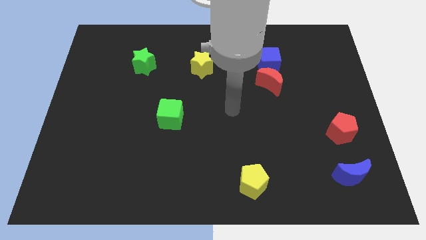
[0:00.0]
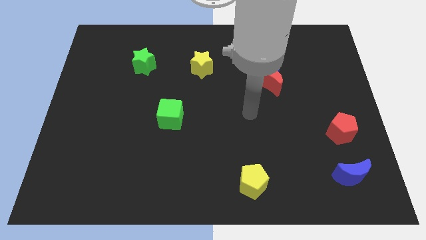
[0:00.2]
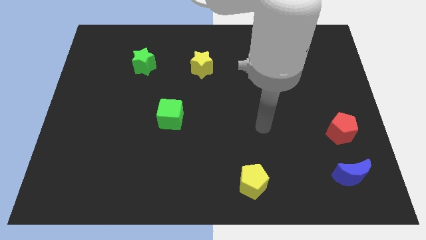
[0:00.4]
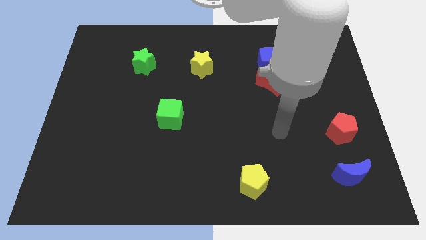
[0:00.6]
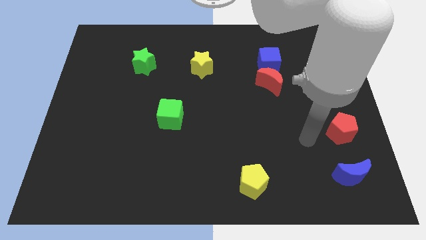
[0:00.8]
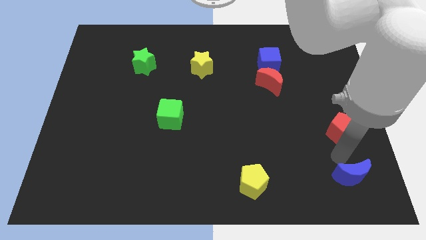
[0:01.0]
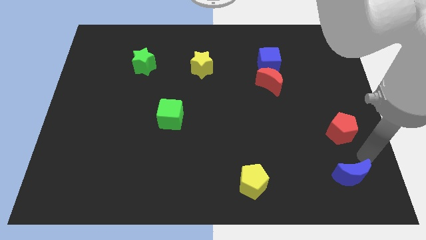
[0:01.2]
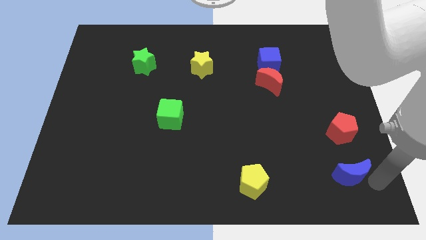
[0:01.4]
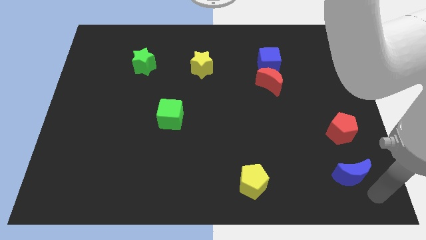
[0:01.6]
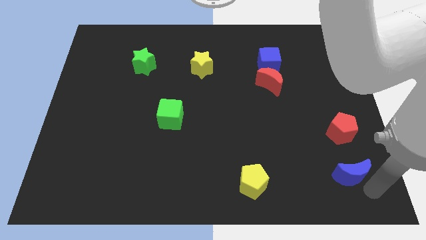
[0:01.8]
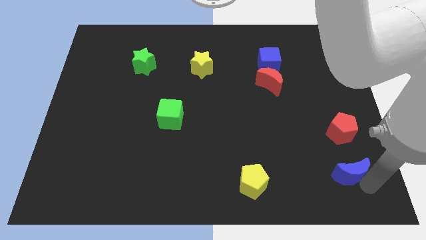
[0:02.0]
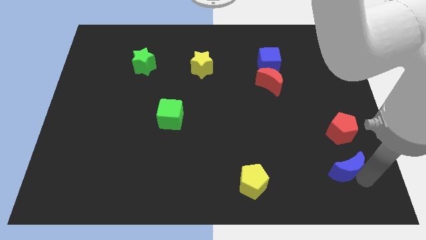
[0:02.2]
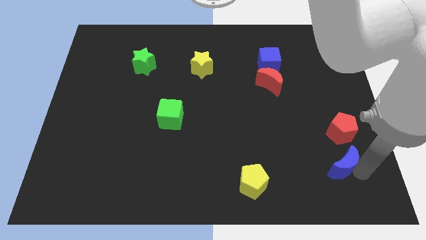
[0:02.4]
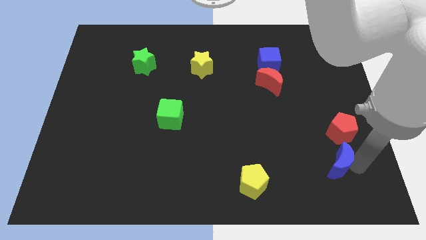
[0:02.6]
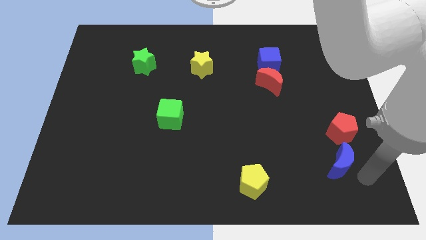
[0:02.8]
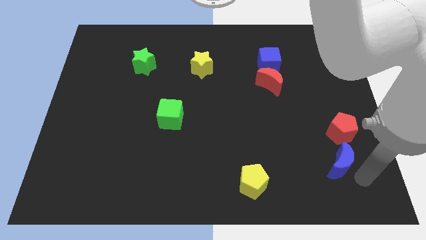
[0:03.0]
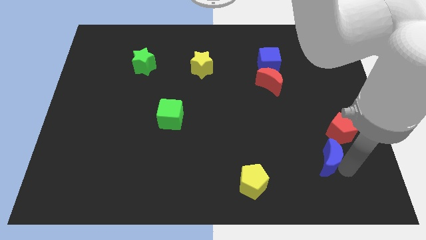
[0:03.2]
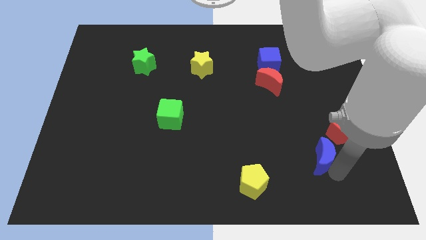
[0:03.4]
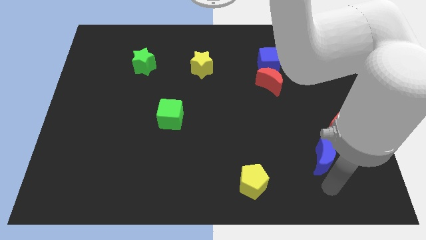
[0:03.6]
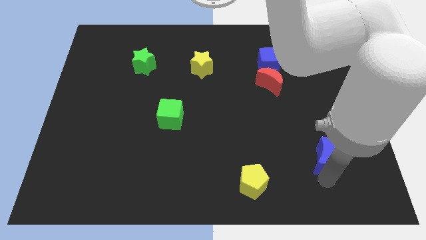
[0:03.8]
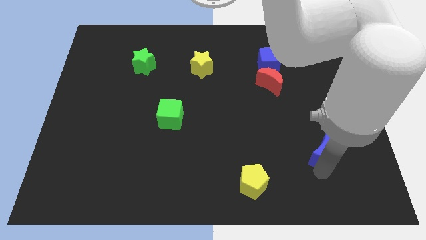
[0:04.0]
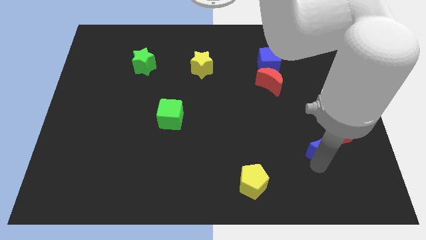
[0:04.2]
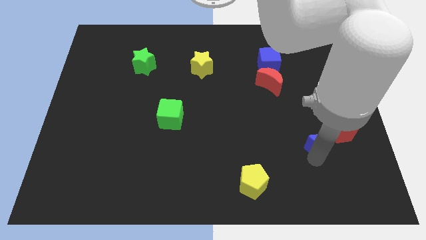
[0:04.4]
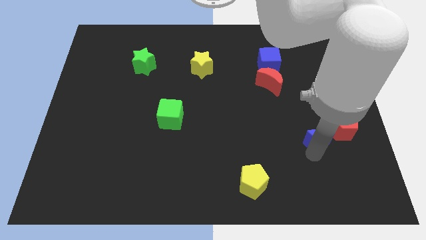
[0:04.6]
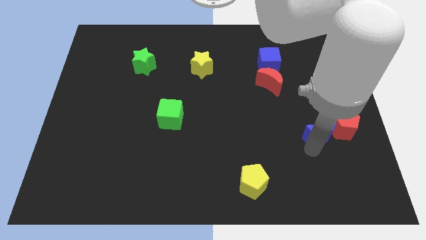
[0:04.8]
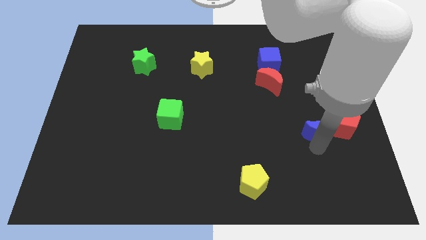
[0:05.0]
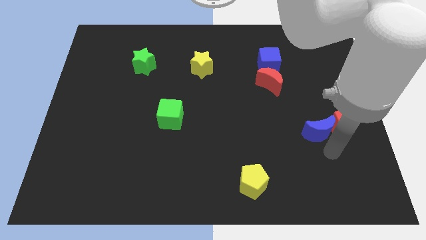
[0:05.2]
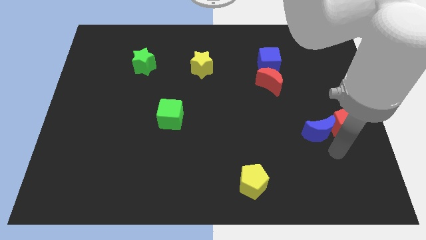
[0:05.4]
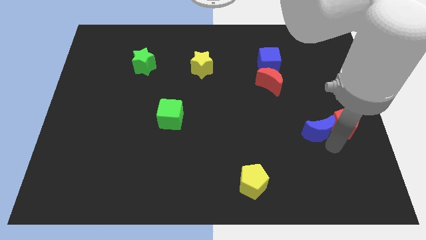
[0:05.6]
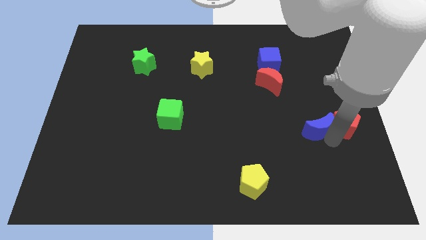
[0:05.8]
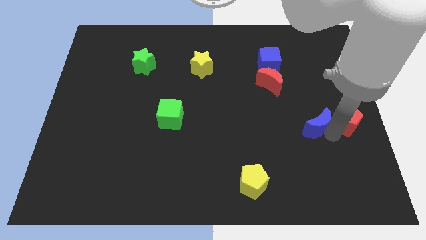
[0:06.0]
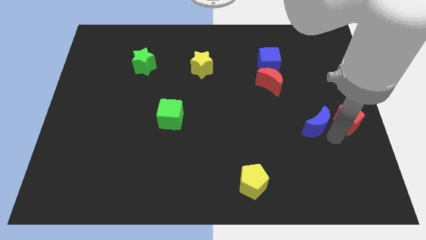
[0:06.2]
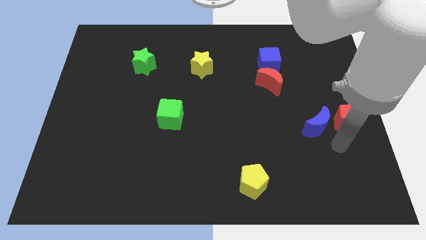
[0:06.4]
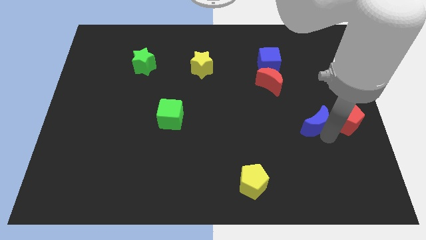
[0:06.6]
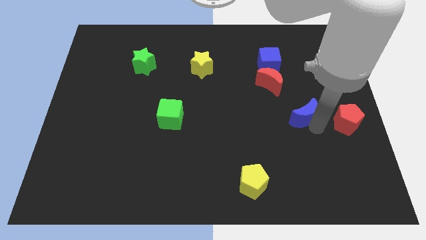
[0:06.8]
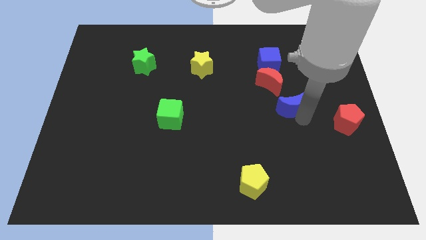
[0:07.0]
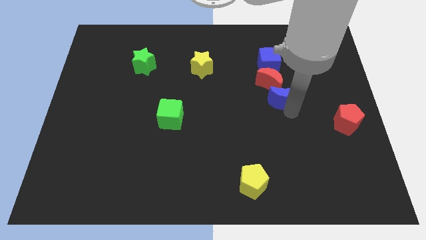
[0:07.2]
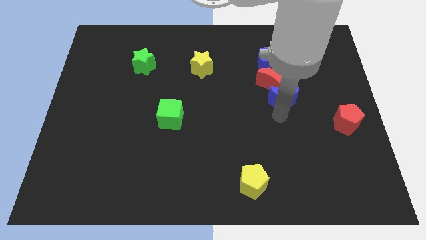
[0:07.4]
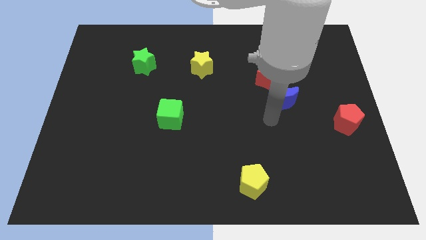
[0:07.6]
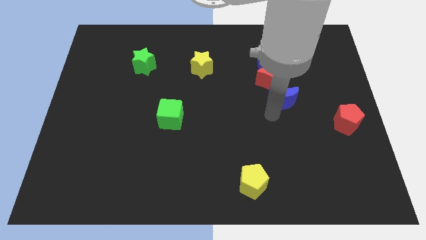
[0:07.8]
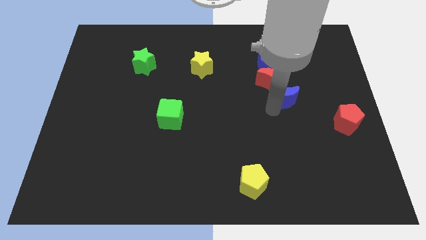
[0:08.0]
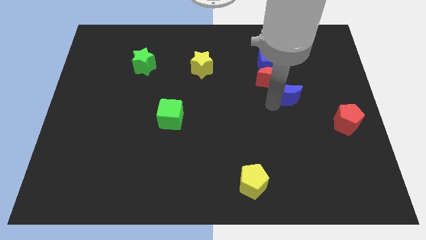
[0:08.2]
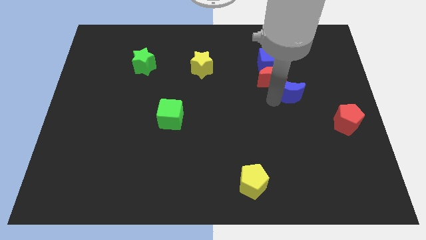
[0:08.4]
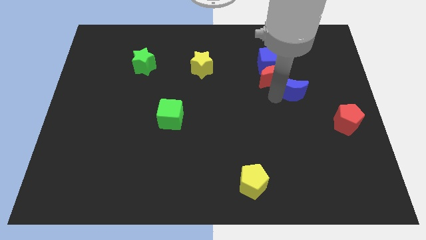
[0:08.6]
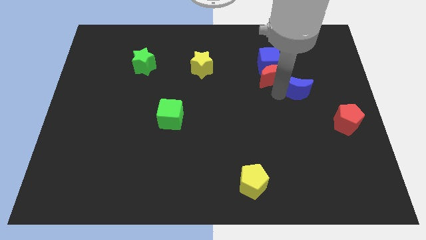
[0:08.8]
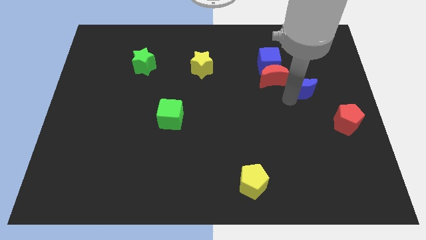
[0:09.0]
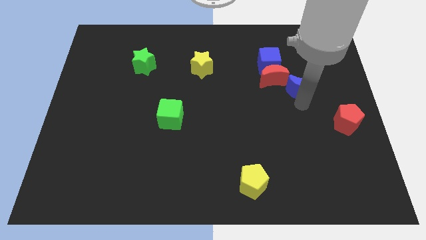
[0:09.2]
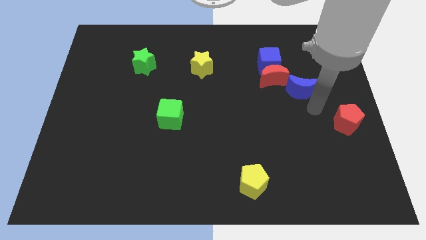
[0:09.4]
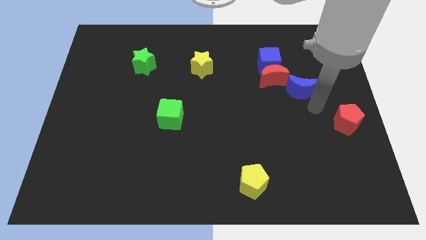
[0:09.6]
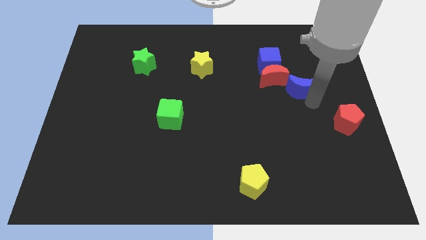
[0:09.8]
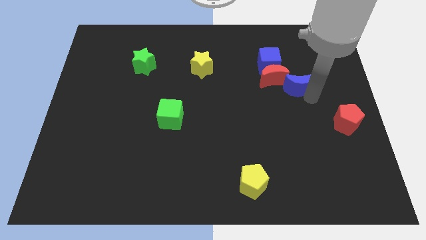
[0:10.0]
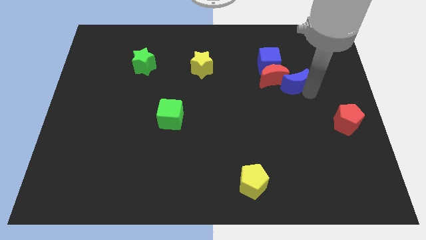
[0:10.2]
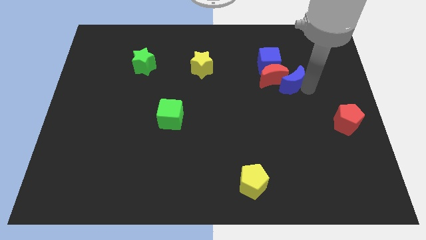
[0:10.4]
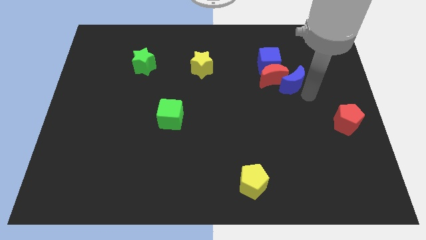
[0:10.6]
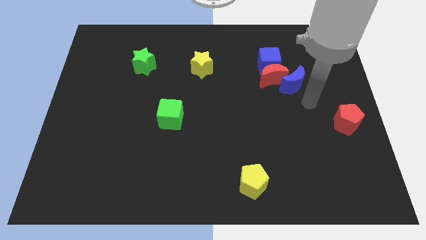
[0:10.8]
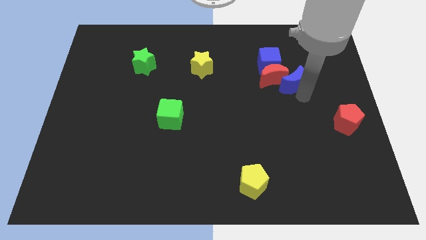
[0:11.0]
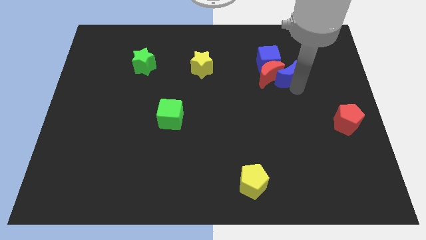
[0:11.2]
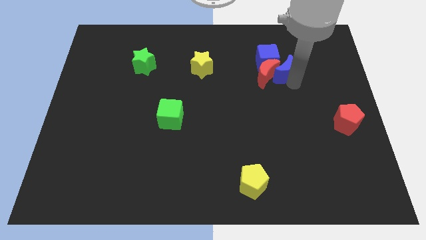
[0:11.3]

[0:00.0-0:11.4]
slide the blue moon towards the blue cube

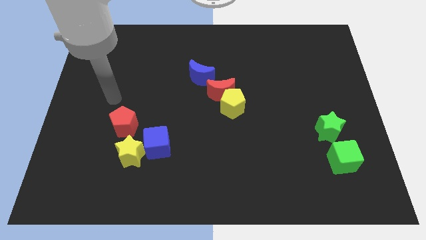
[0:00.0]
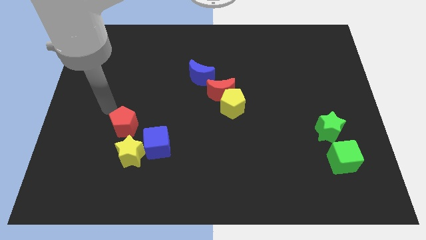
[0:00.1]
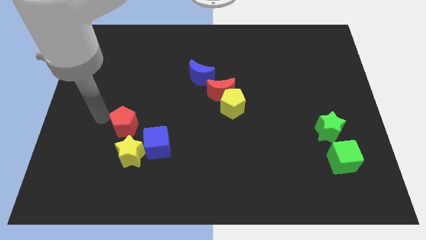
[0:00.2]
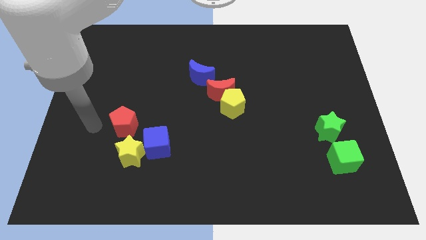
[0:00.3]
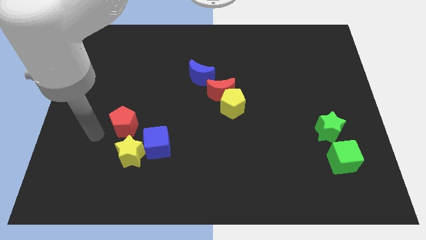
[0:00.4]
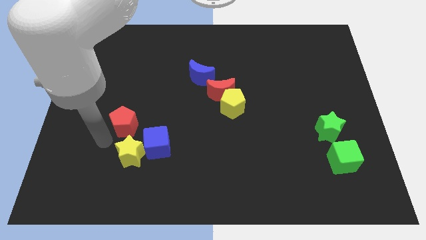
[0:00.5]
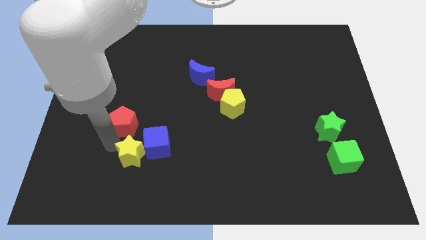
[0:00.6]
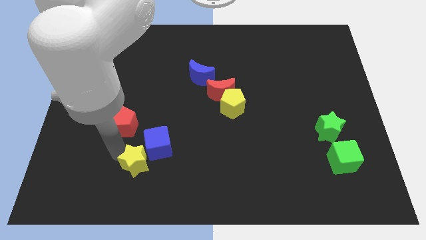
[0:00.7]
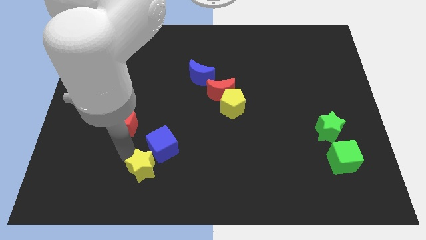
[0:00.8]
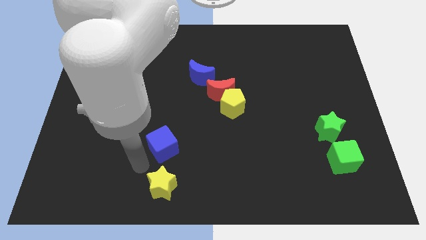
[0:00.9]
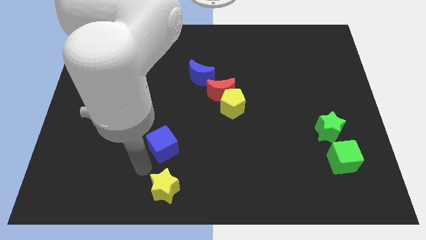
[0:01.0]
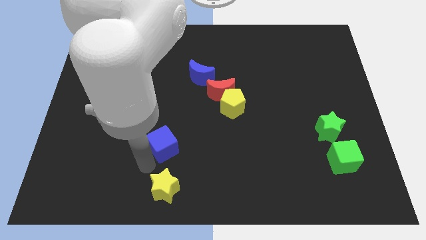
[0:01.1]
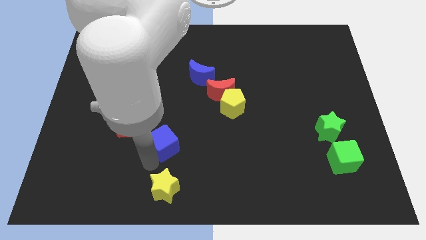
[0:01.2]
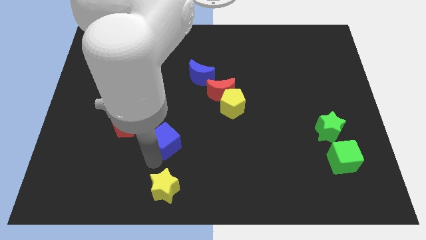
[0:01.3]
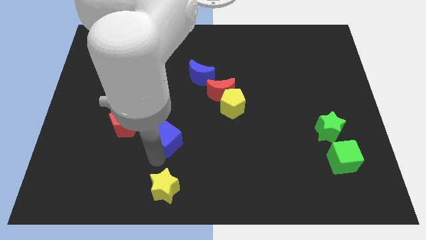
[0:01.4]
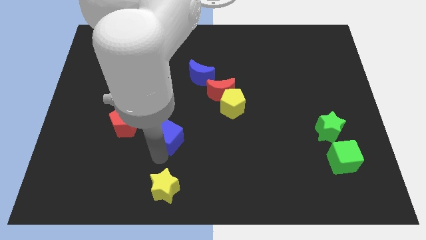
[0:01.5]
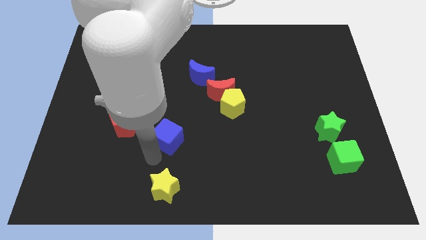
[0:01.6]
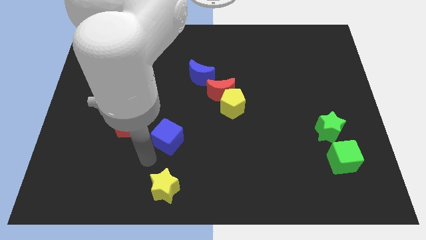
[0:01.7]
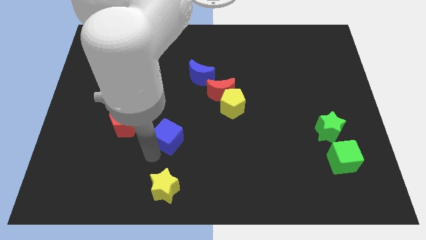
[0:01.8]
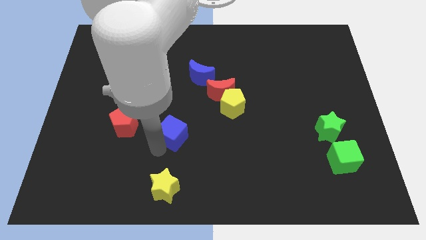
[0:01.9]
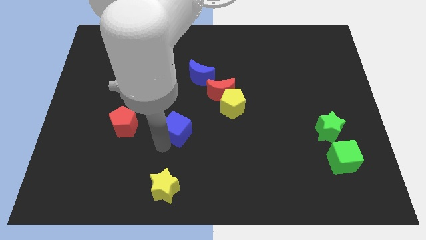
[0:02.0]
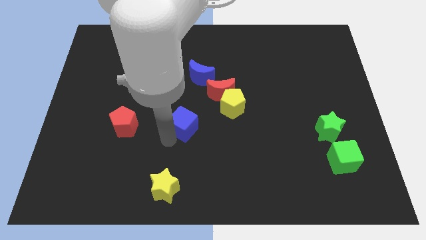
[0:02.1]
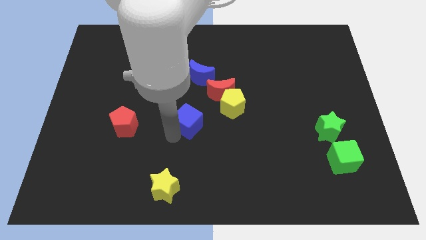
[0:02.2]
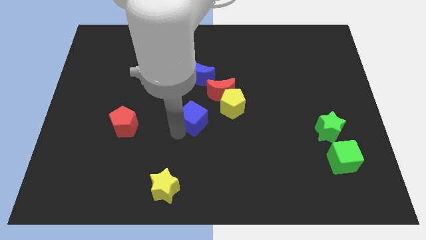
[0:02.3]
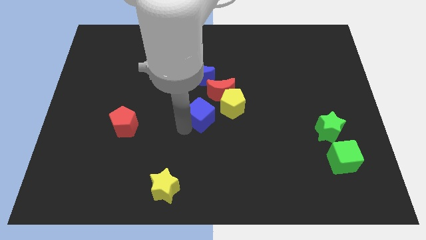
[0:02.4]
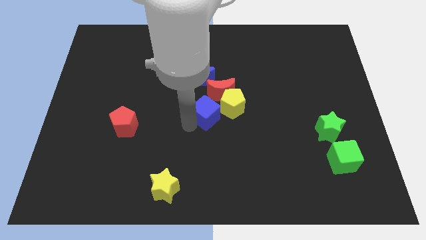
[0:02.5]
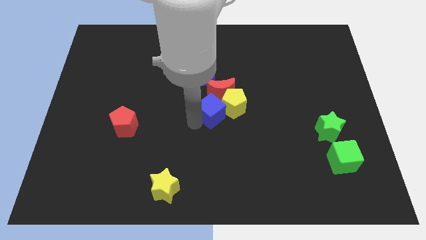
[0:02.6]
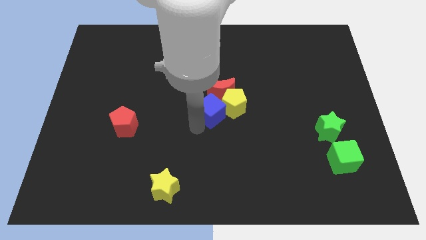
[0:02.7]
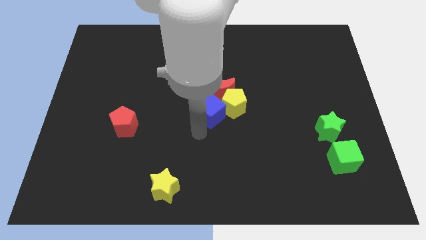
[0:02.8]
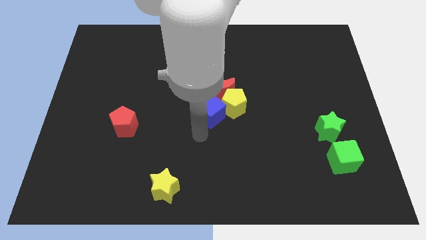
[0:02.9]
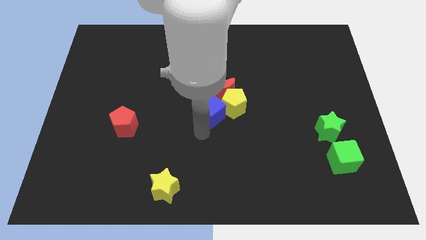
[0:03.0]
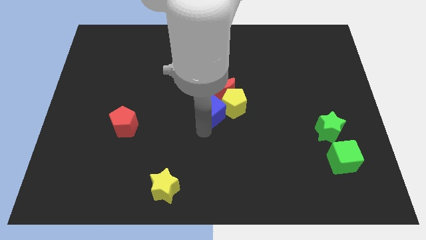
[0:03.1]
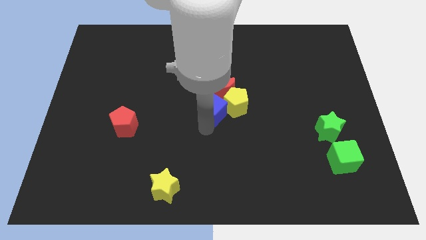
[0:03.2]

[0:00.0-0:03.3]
push the blue cube next to the red moon
